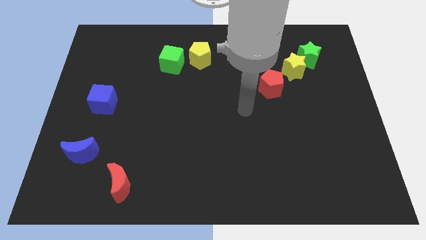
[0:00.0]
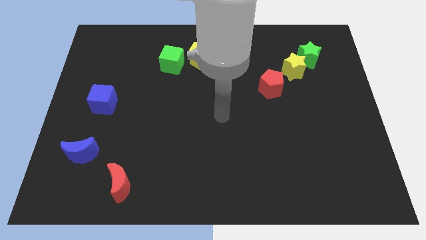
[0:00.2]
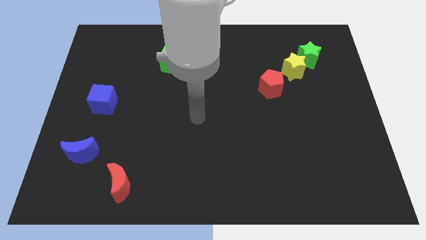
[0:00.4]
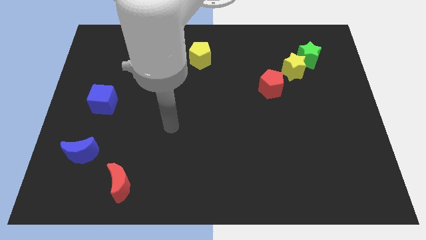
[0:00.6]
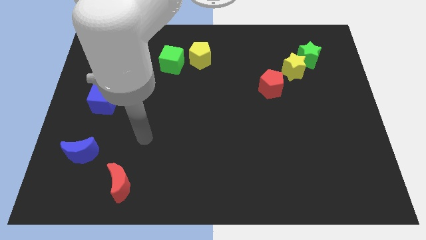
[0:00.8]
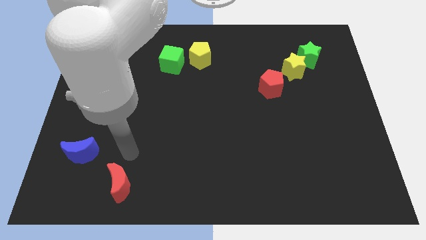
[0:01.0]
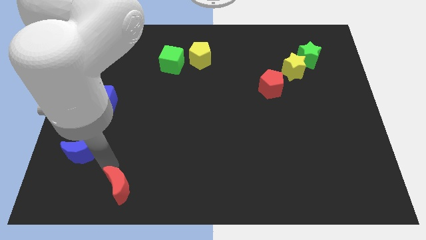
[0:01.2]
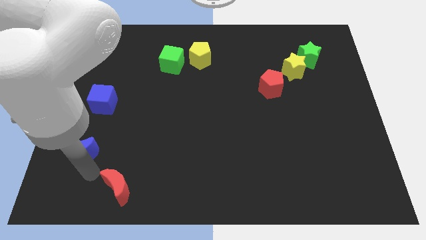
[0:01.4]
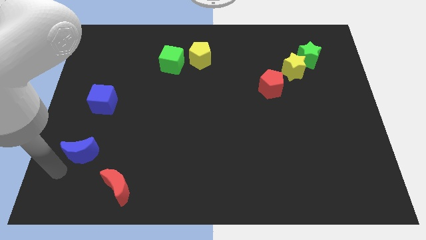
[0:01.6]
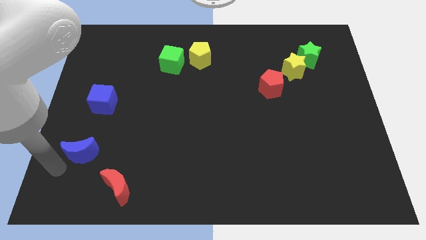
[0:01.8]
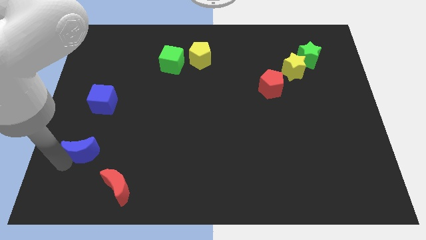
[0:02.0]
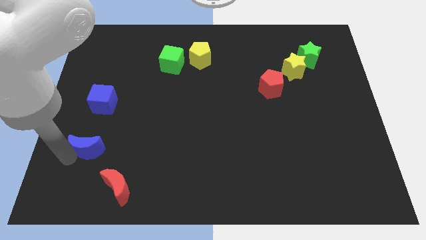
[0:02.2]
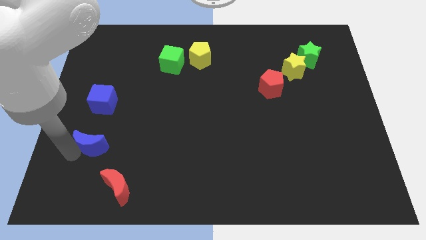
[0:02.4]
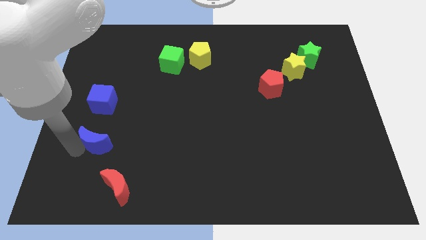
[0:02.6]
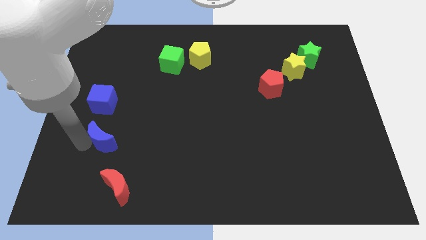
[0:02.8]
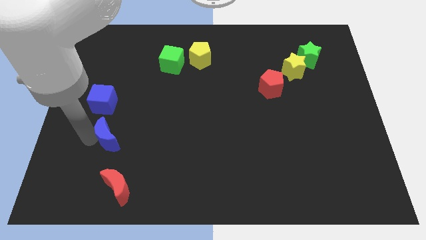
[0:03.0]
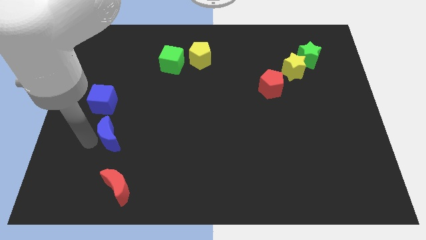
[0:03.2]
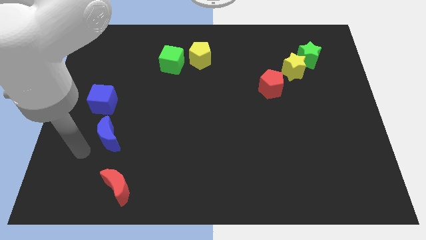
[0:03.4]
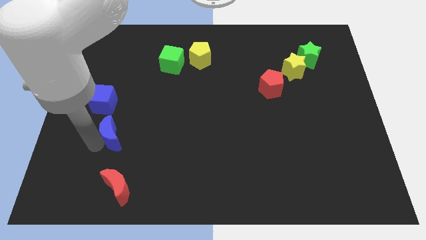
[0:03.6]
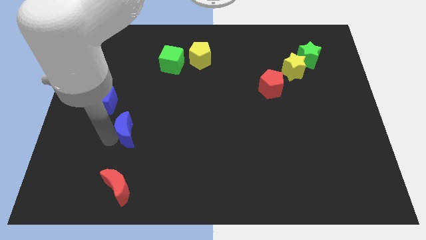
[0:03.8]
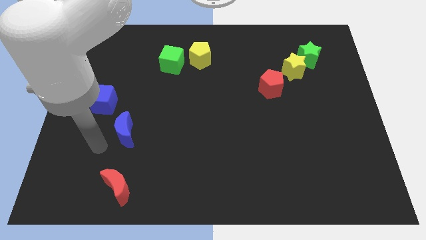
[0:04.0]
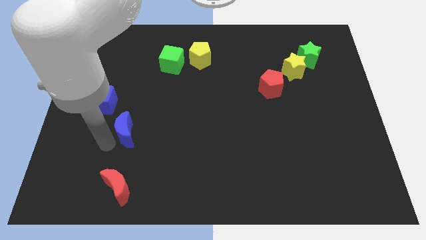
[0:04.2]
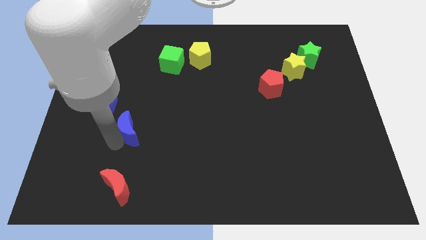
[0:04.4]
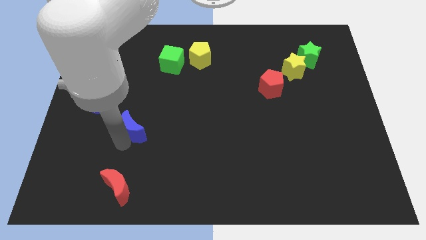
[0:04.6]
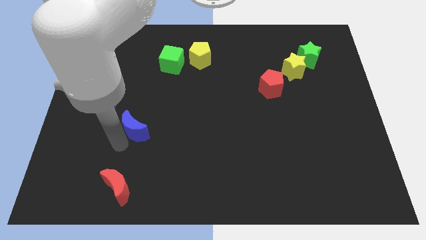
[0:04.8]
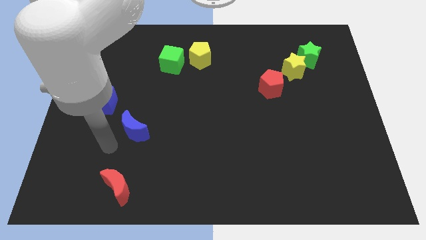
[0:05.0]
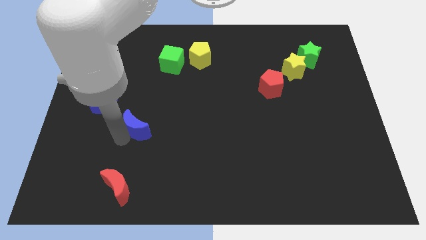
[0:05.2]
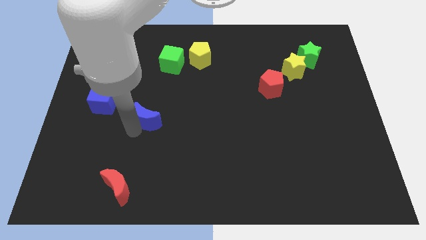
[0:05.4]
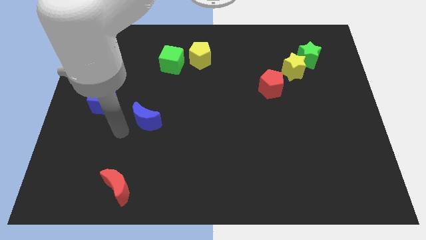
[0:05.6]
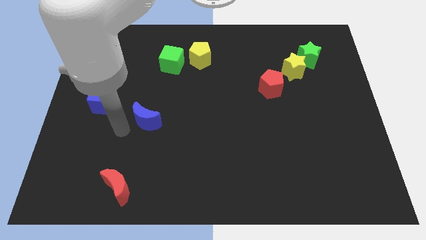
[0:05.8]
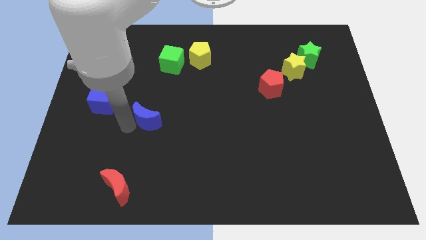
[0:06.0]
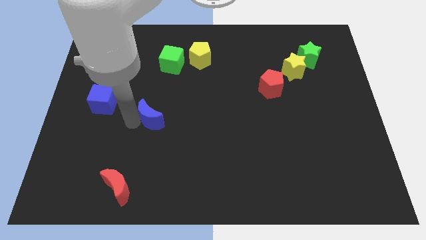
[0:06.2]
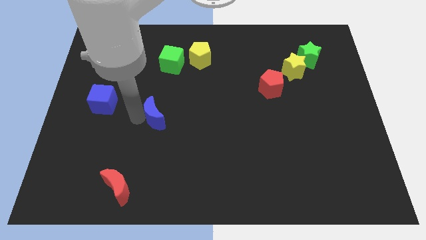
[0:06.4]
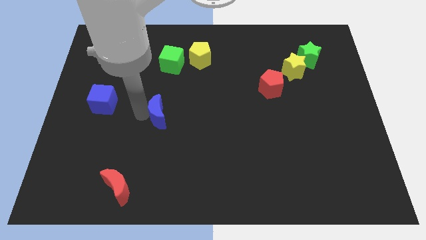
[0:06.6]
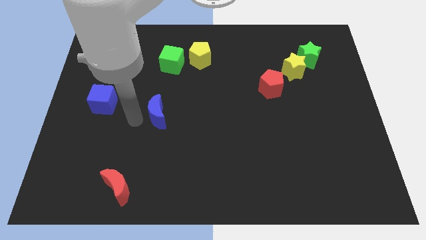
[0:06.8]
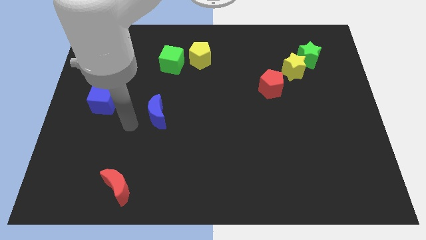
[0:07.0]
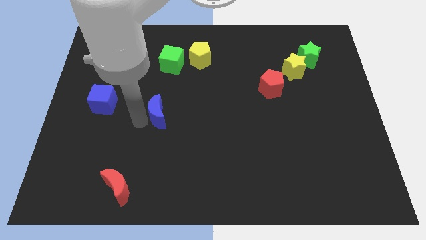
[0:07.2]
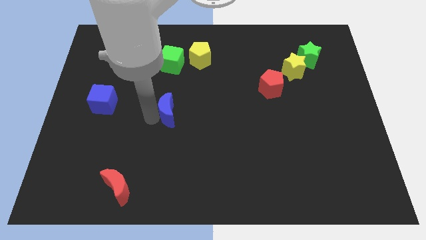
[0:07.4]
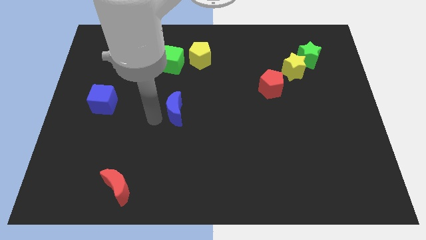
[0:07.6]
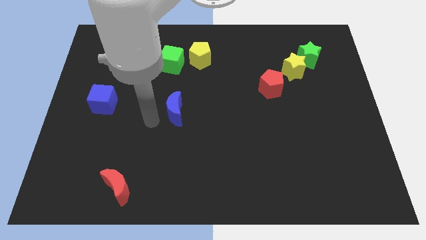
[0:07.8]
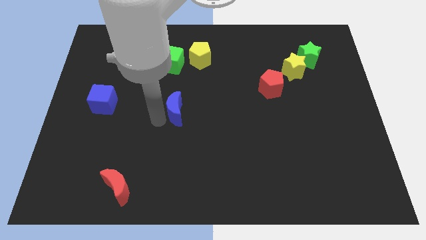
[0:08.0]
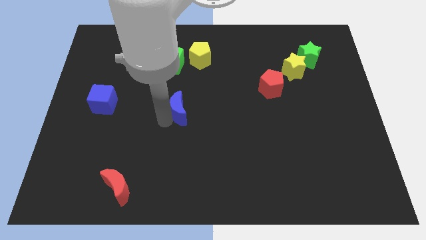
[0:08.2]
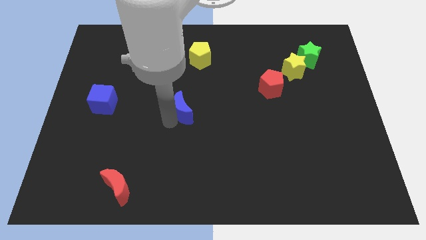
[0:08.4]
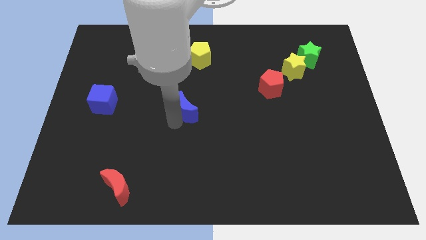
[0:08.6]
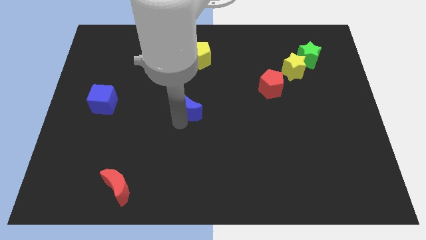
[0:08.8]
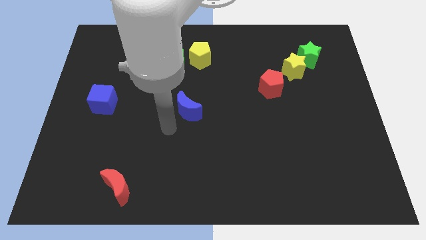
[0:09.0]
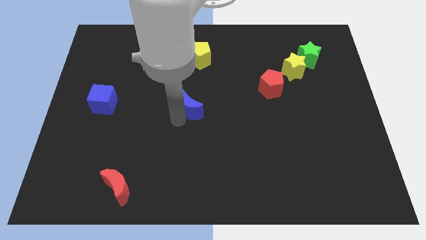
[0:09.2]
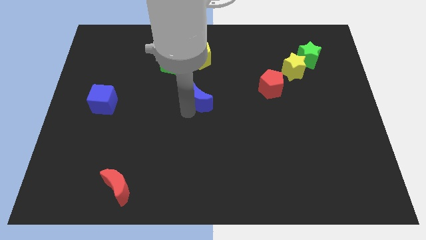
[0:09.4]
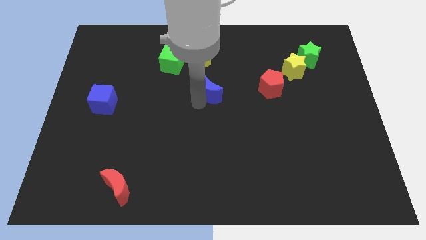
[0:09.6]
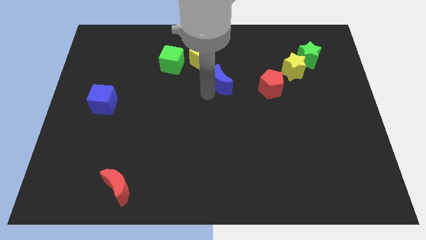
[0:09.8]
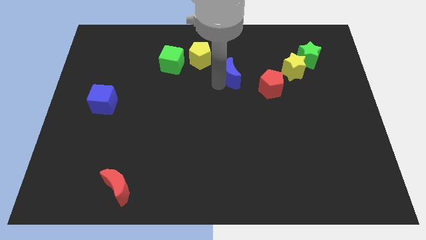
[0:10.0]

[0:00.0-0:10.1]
move the blue moon to the top left side of the red pentagon

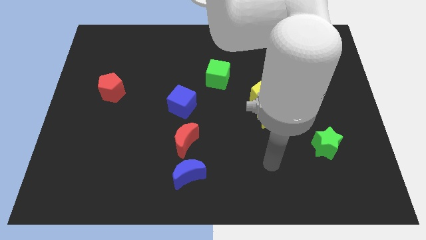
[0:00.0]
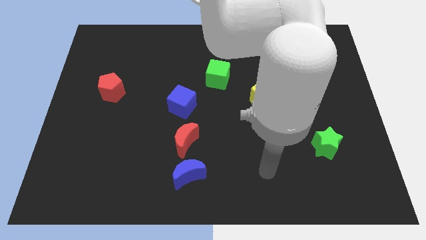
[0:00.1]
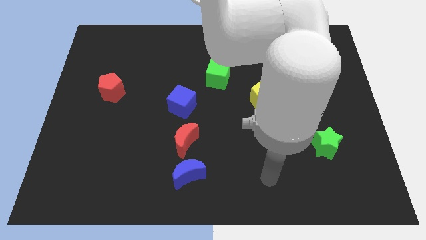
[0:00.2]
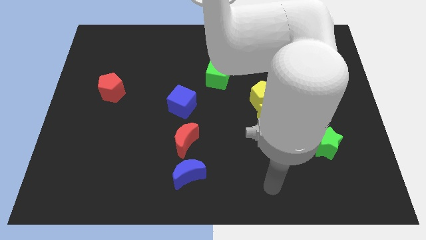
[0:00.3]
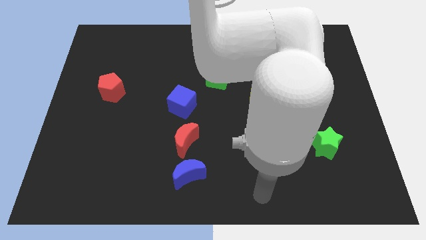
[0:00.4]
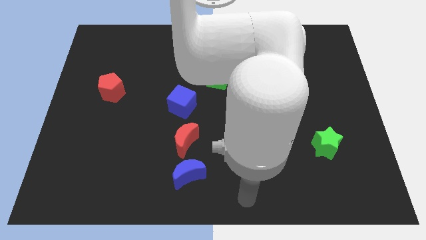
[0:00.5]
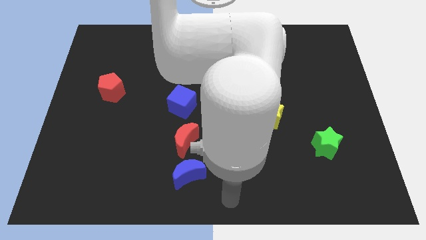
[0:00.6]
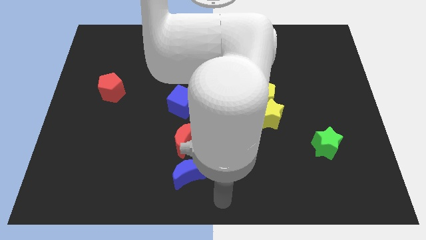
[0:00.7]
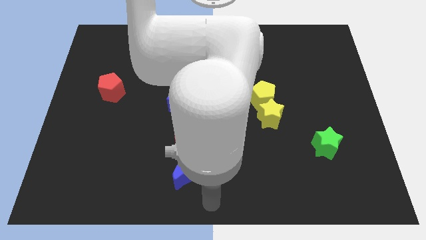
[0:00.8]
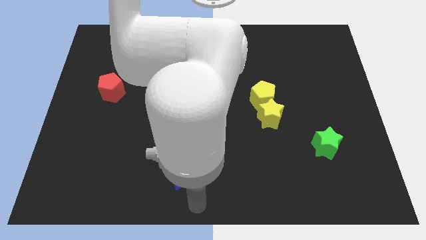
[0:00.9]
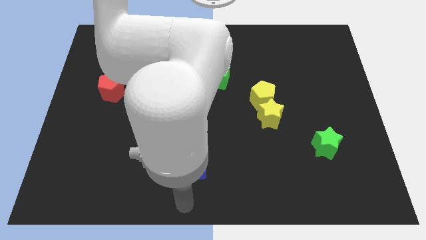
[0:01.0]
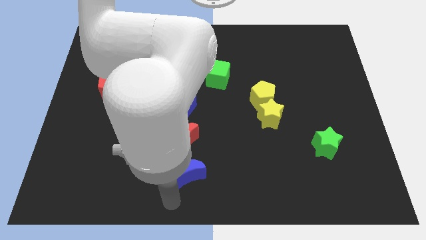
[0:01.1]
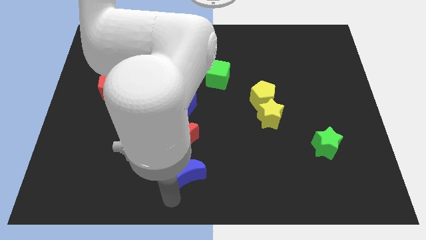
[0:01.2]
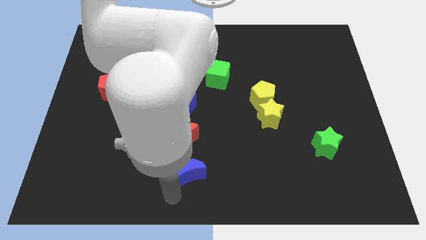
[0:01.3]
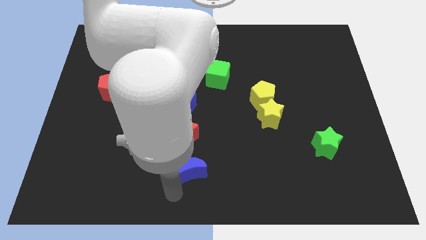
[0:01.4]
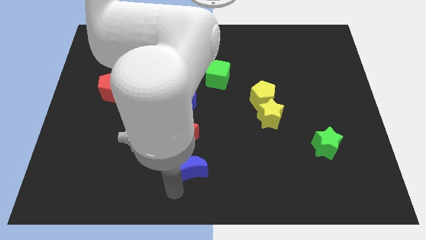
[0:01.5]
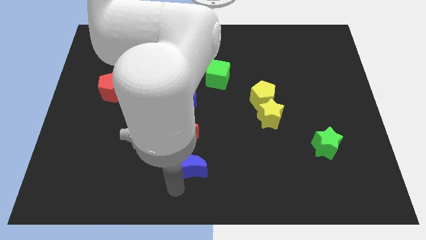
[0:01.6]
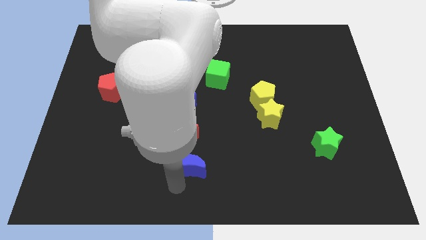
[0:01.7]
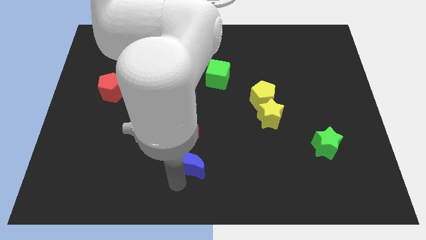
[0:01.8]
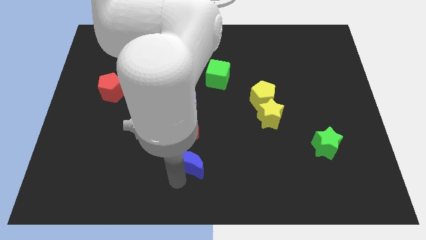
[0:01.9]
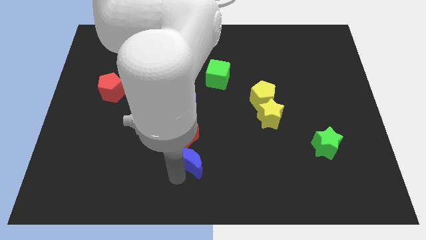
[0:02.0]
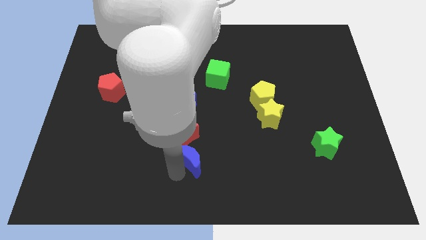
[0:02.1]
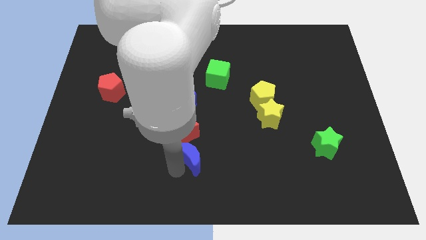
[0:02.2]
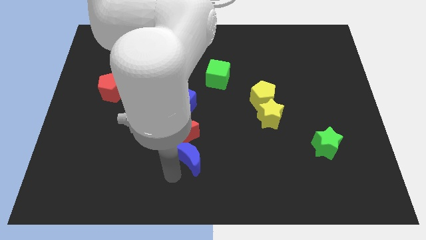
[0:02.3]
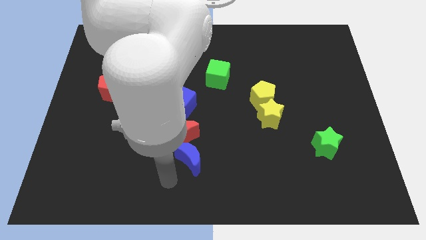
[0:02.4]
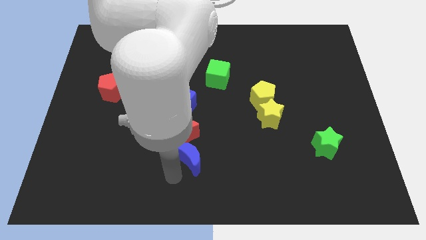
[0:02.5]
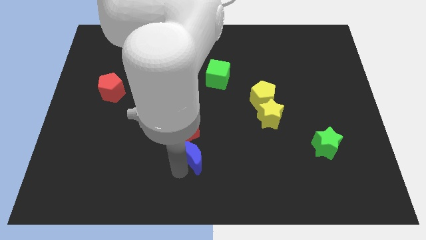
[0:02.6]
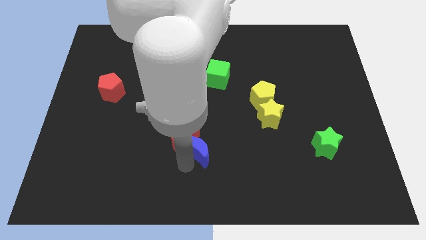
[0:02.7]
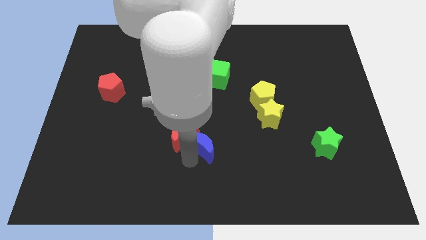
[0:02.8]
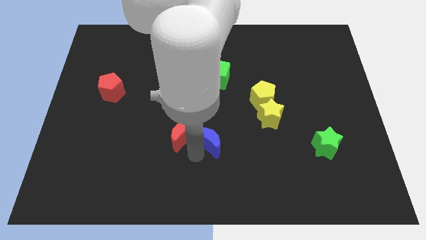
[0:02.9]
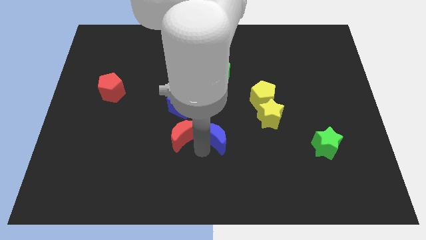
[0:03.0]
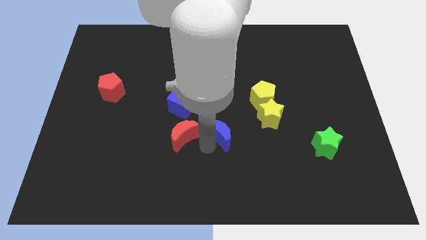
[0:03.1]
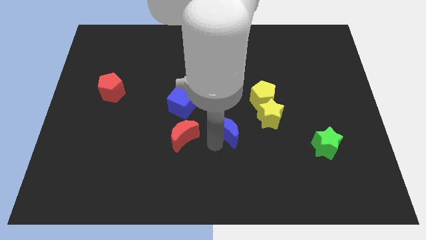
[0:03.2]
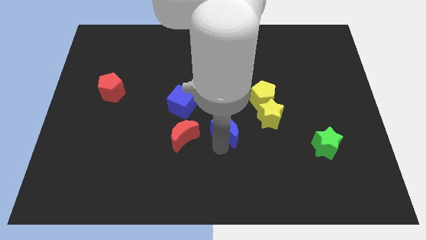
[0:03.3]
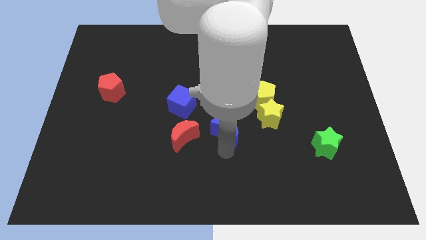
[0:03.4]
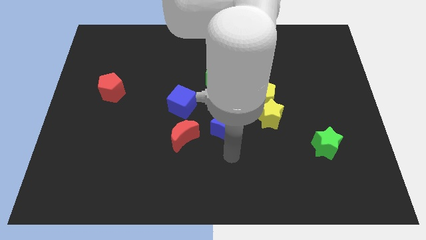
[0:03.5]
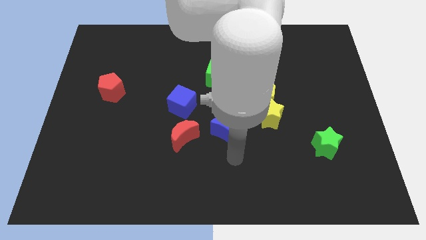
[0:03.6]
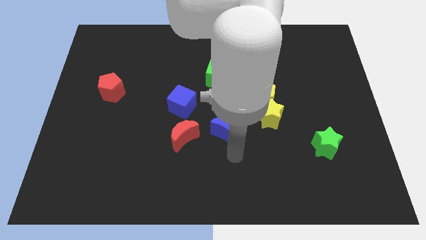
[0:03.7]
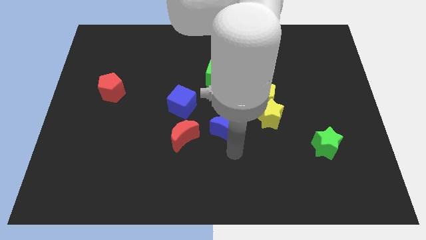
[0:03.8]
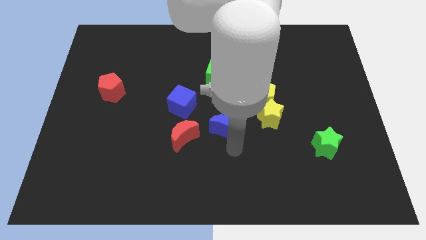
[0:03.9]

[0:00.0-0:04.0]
move the blue moon to the bottom of the green cube
